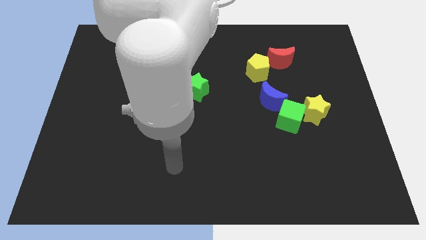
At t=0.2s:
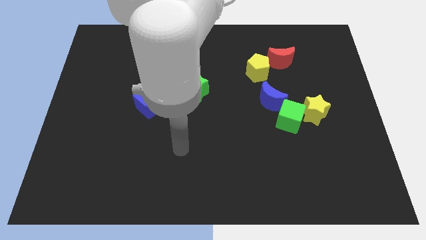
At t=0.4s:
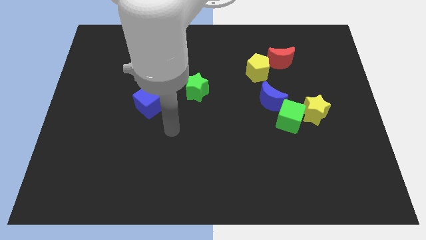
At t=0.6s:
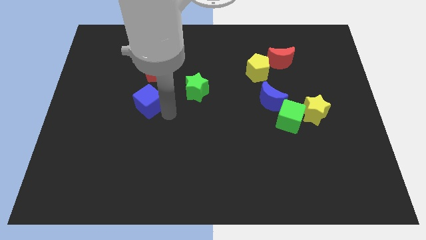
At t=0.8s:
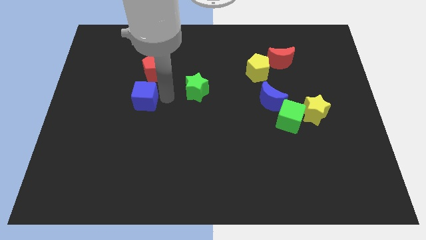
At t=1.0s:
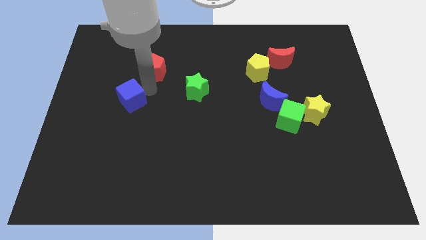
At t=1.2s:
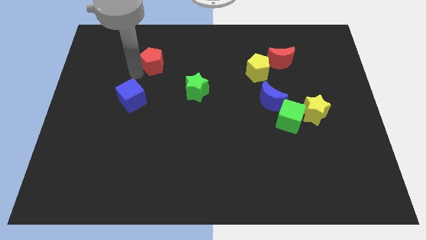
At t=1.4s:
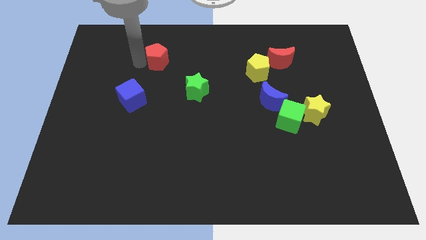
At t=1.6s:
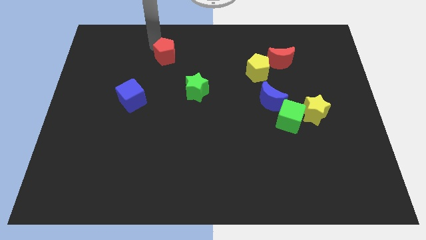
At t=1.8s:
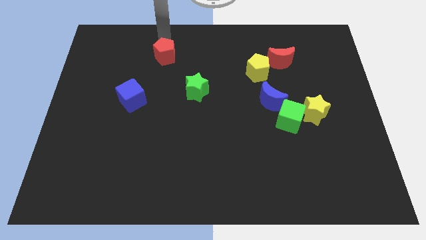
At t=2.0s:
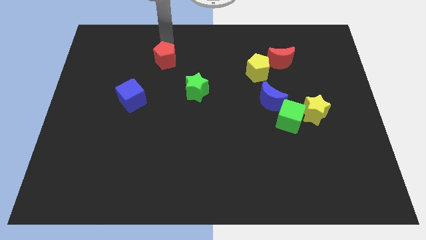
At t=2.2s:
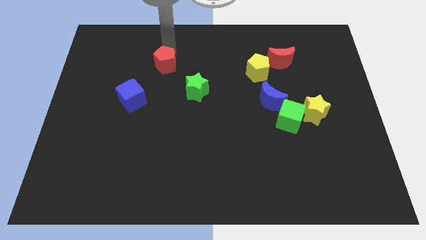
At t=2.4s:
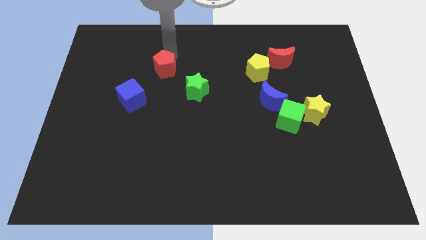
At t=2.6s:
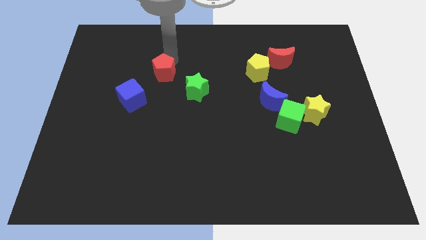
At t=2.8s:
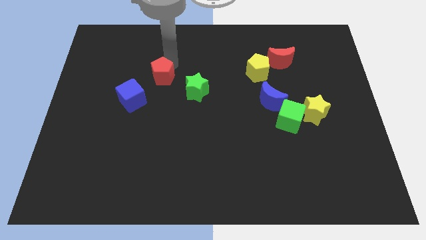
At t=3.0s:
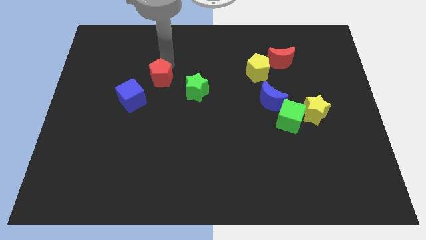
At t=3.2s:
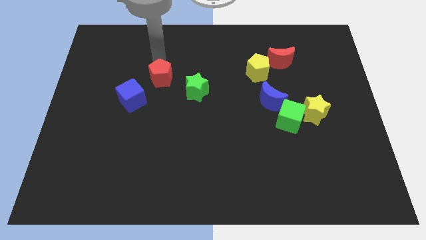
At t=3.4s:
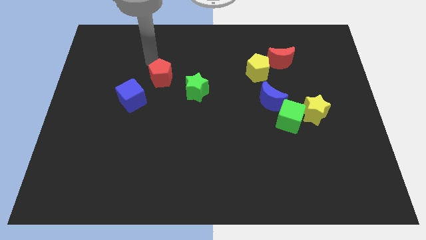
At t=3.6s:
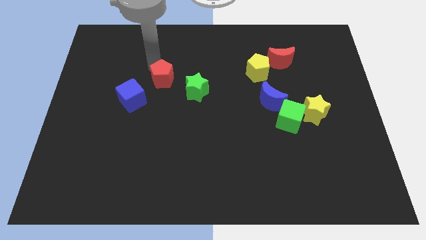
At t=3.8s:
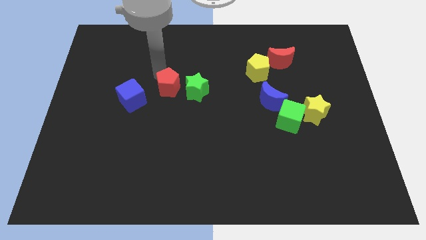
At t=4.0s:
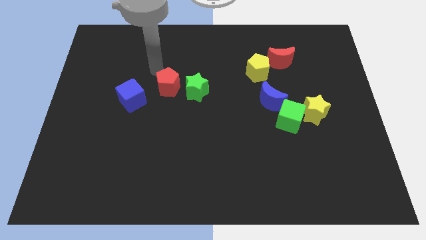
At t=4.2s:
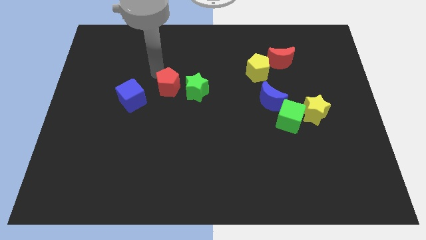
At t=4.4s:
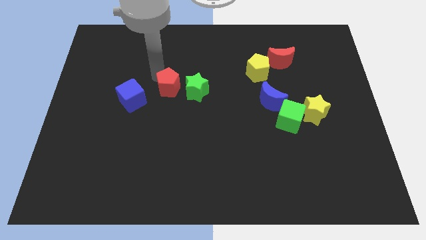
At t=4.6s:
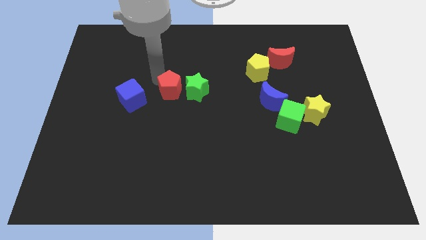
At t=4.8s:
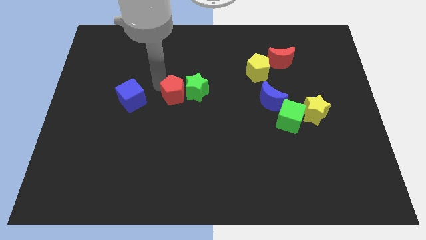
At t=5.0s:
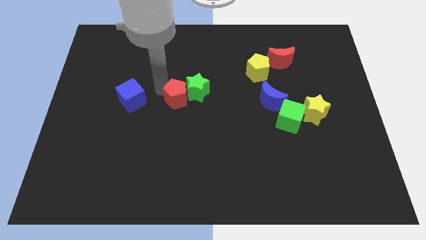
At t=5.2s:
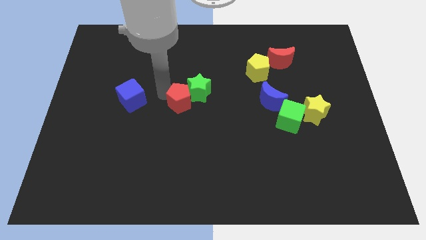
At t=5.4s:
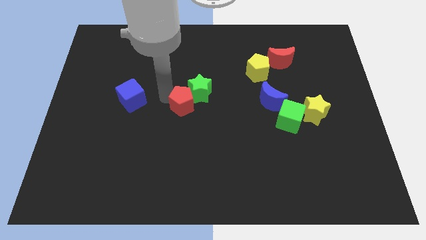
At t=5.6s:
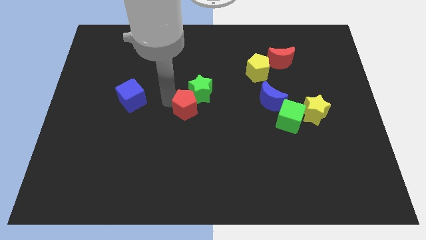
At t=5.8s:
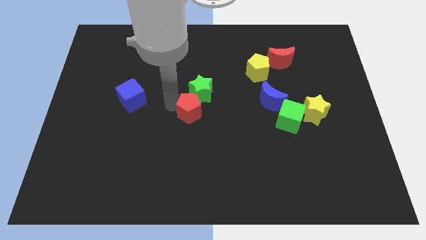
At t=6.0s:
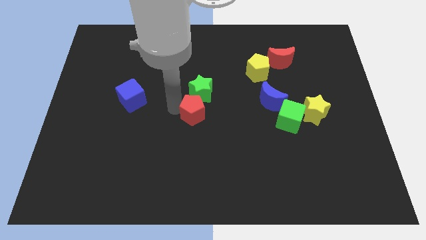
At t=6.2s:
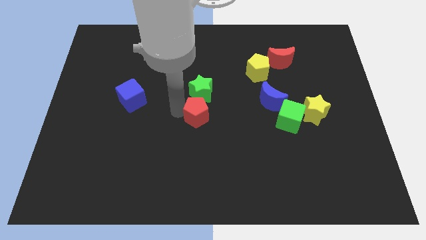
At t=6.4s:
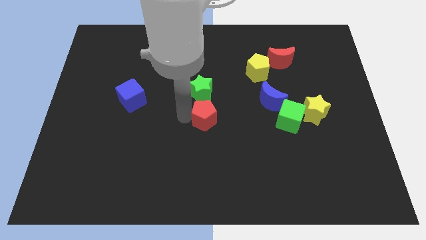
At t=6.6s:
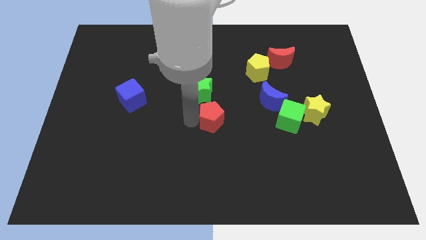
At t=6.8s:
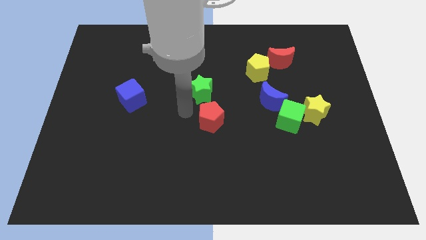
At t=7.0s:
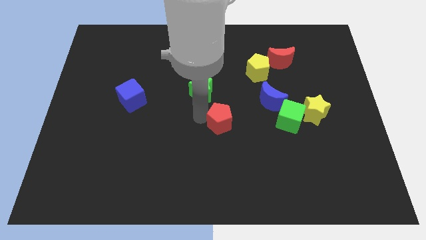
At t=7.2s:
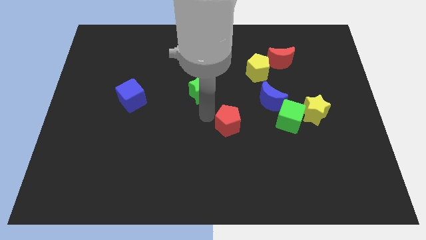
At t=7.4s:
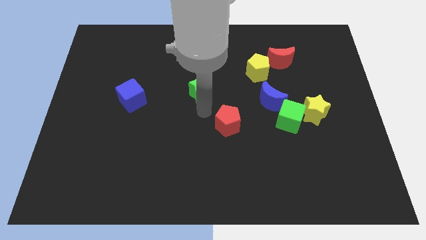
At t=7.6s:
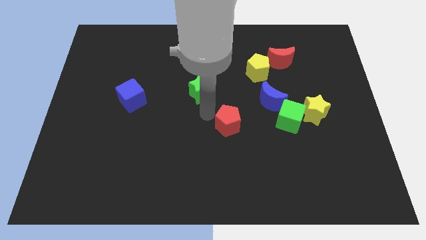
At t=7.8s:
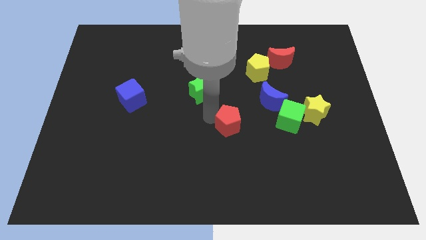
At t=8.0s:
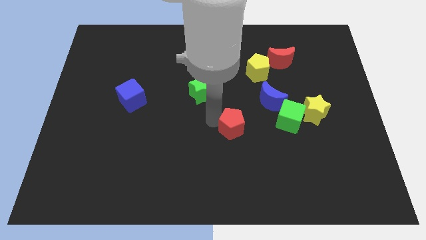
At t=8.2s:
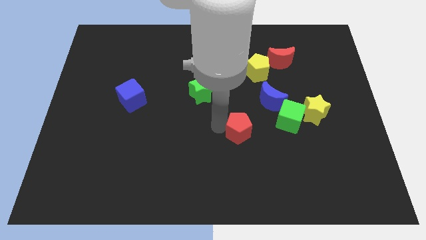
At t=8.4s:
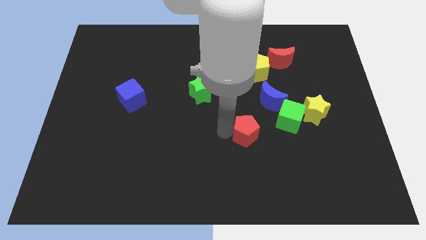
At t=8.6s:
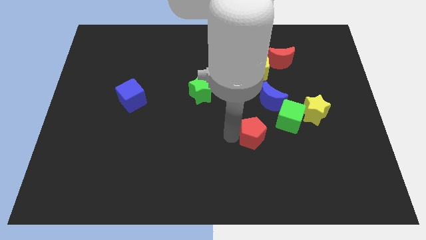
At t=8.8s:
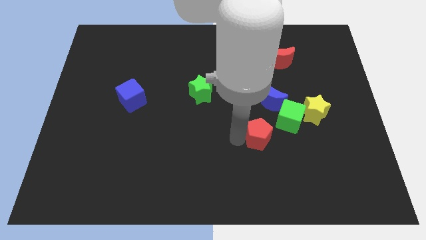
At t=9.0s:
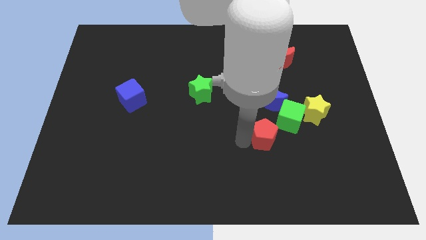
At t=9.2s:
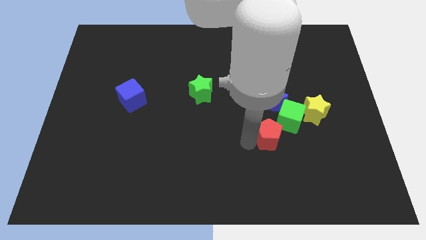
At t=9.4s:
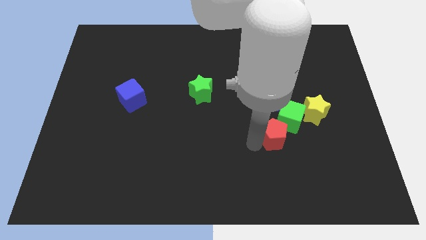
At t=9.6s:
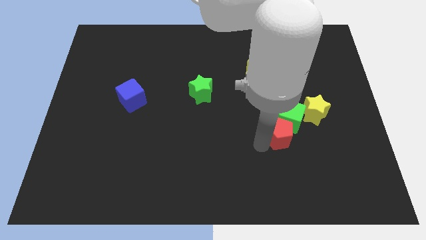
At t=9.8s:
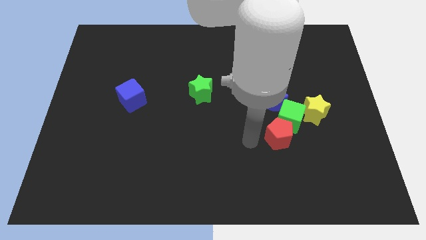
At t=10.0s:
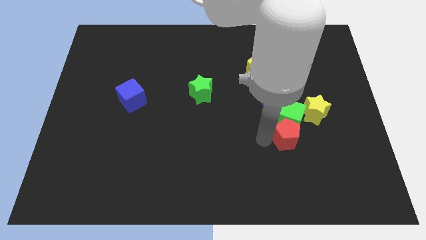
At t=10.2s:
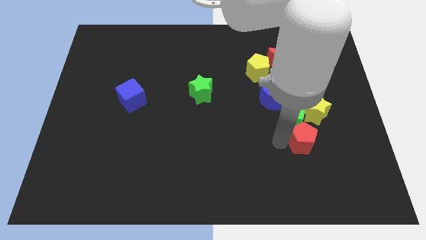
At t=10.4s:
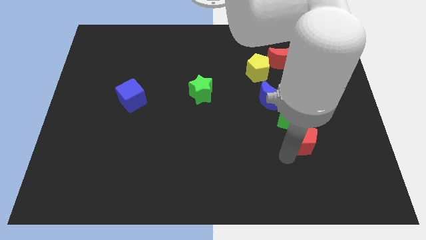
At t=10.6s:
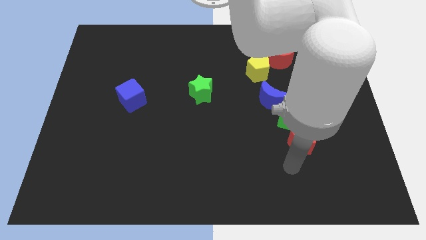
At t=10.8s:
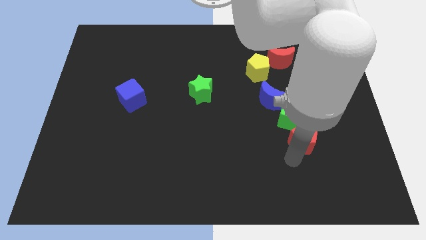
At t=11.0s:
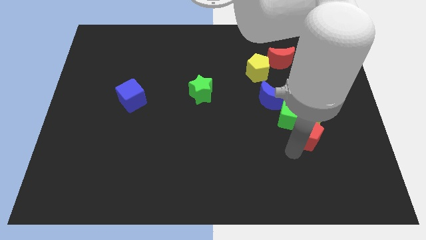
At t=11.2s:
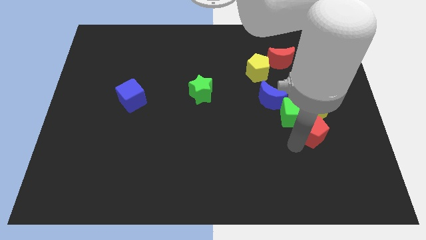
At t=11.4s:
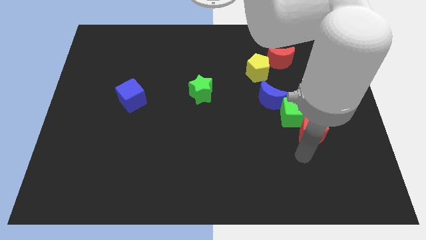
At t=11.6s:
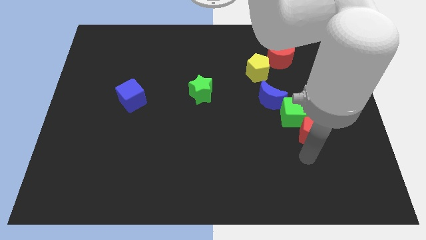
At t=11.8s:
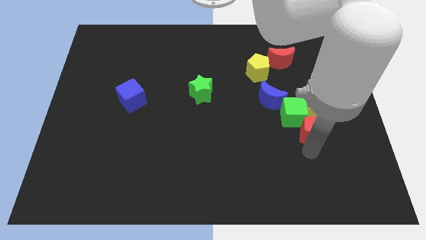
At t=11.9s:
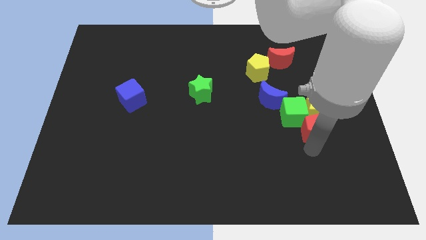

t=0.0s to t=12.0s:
move the red pentagon towards the yellow star

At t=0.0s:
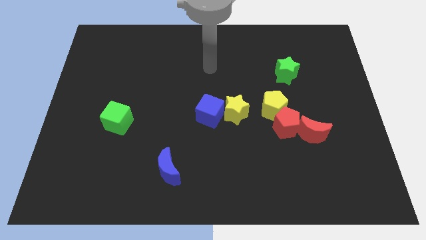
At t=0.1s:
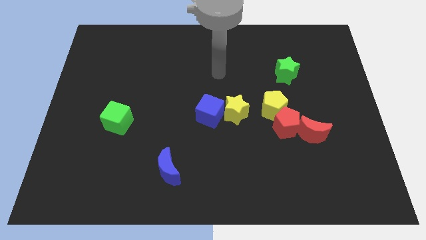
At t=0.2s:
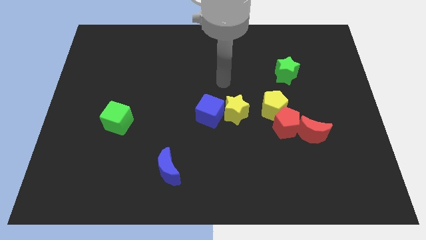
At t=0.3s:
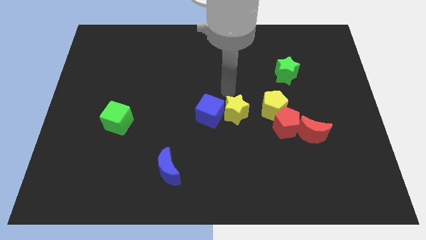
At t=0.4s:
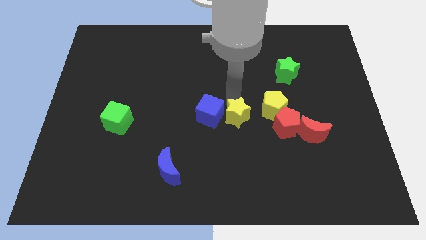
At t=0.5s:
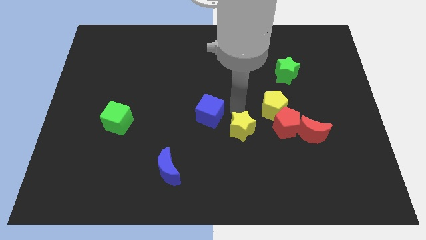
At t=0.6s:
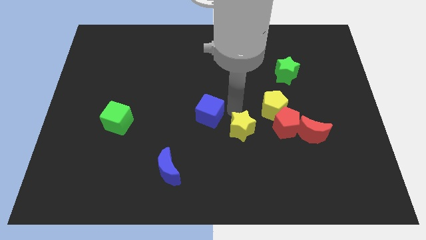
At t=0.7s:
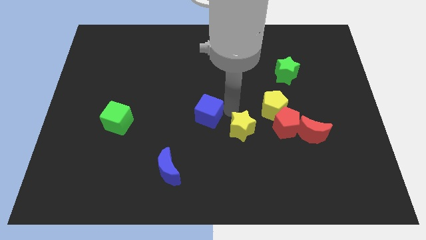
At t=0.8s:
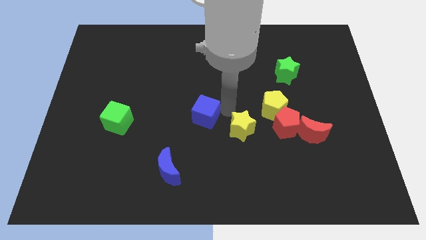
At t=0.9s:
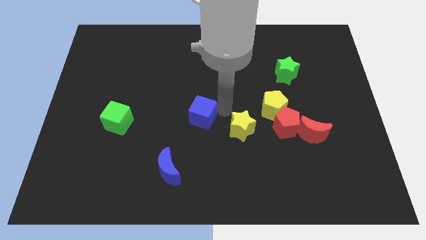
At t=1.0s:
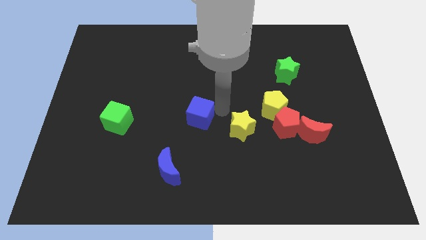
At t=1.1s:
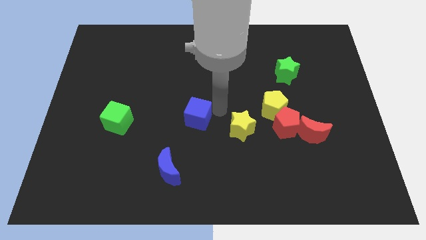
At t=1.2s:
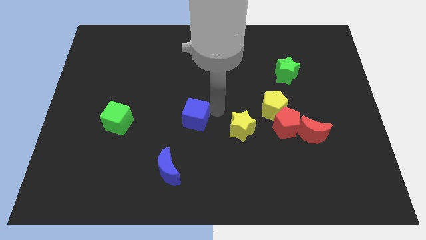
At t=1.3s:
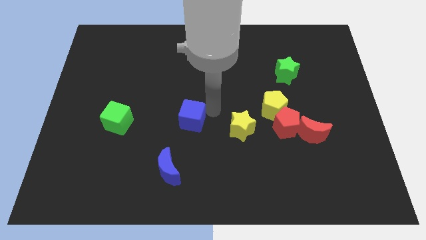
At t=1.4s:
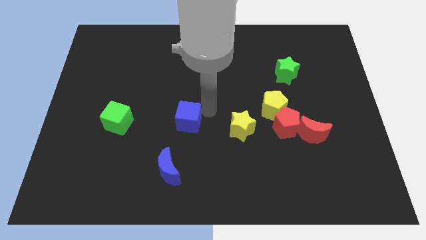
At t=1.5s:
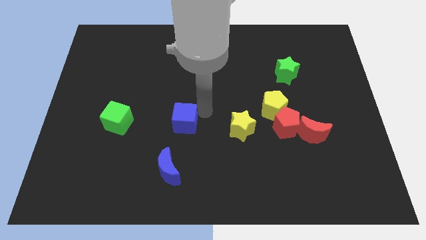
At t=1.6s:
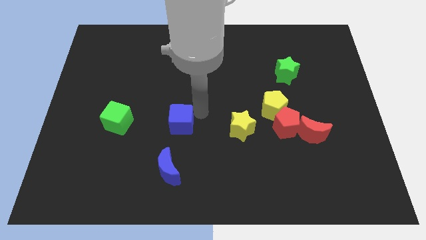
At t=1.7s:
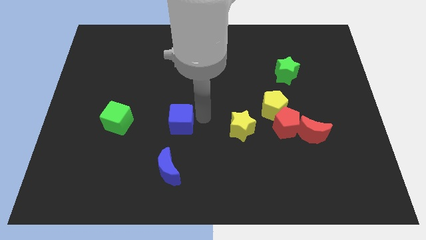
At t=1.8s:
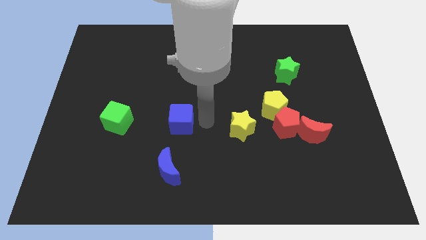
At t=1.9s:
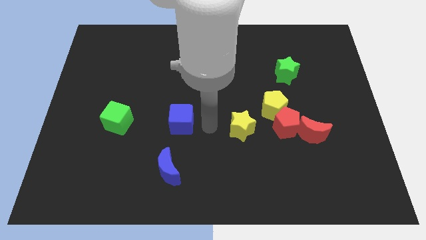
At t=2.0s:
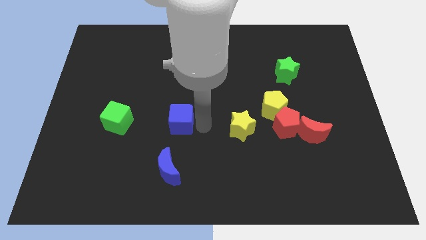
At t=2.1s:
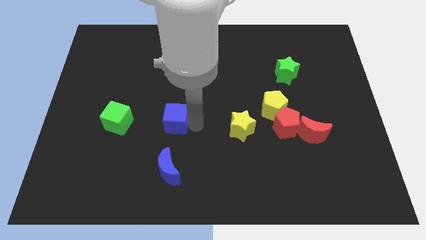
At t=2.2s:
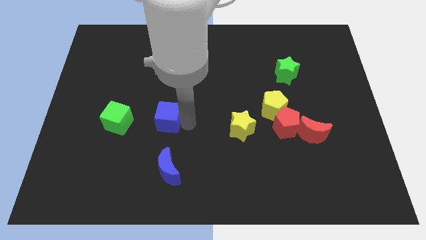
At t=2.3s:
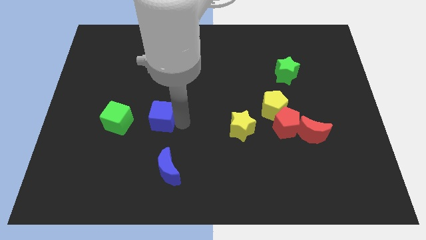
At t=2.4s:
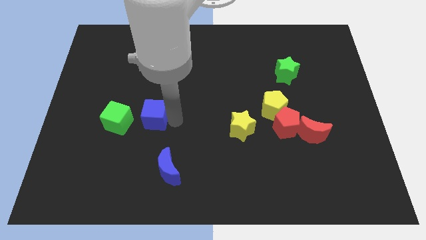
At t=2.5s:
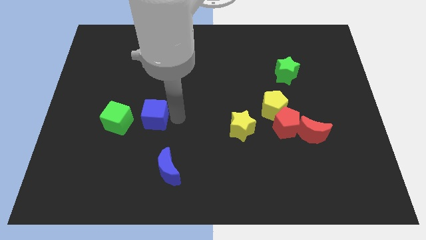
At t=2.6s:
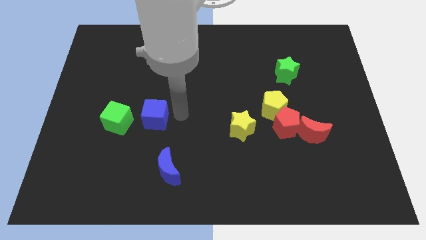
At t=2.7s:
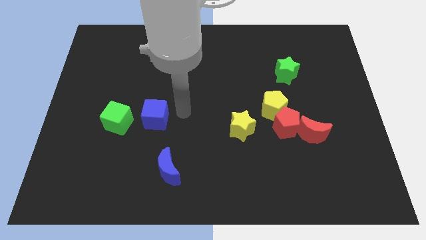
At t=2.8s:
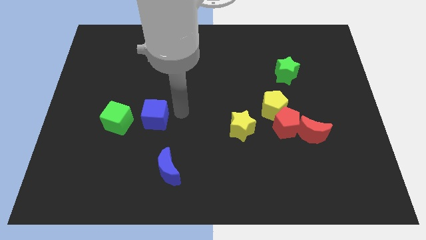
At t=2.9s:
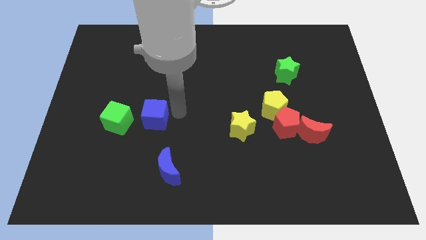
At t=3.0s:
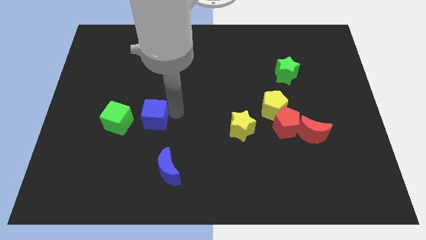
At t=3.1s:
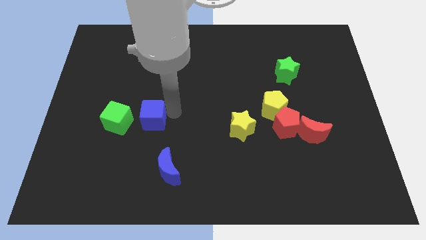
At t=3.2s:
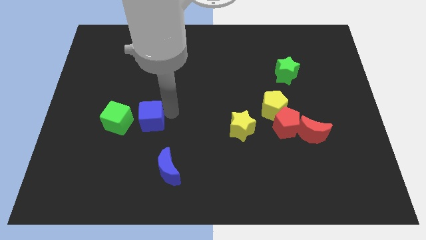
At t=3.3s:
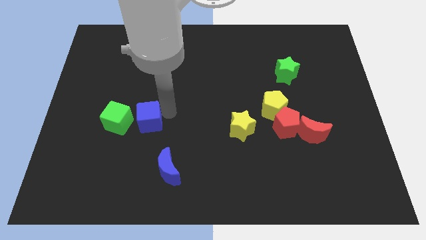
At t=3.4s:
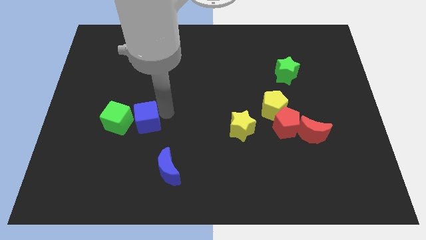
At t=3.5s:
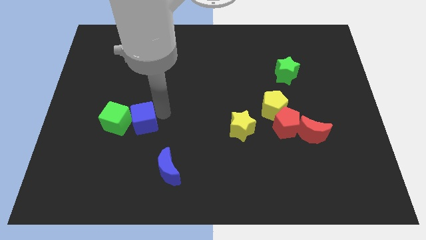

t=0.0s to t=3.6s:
push the blue cube to the green cube
